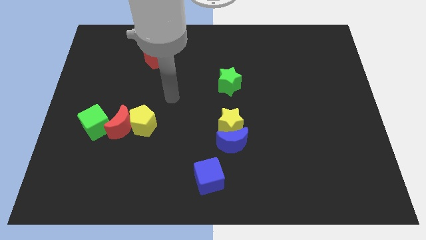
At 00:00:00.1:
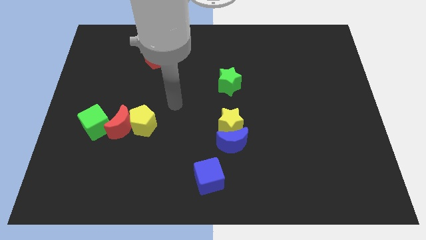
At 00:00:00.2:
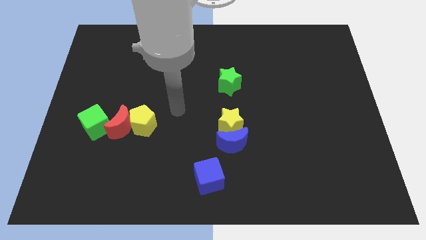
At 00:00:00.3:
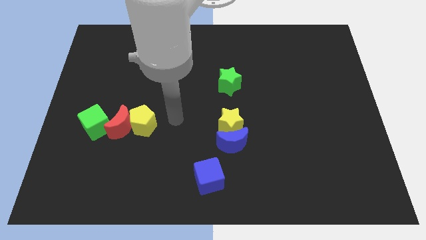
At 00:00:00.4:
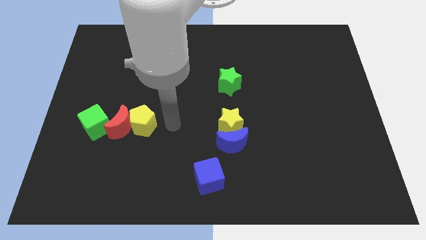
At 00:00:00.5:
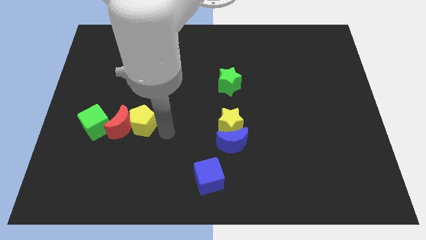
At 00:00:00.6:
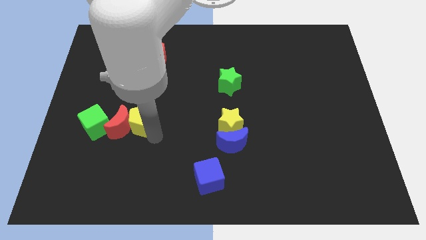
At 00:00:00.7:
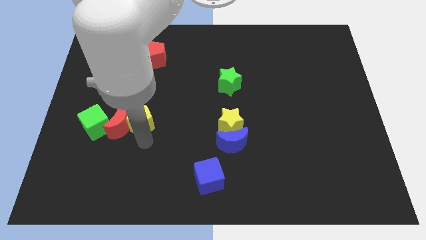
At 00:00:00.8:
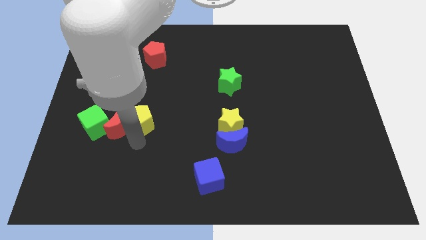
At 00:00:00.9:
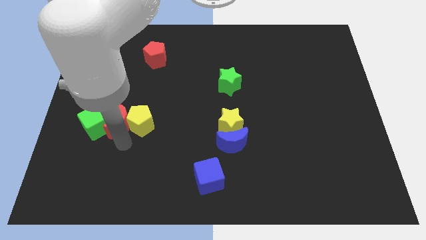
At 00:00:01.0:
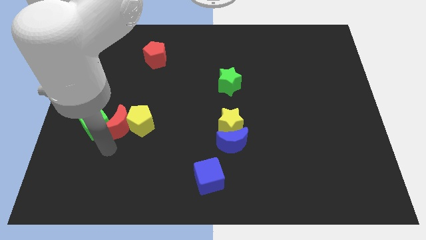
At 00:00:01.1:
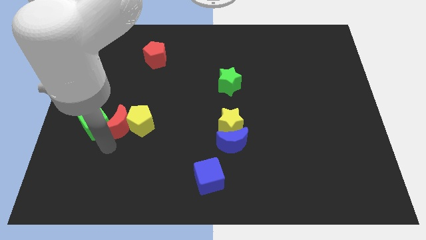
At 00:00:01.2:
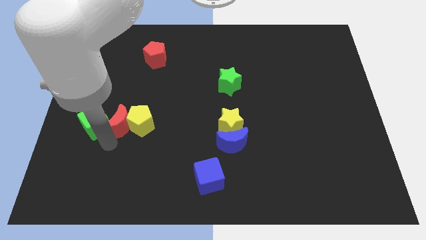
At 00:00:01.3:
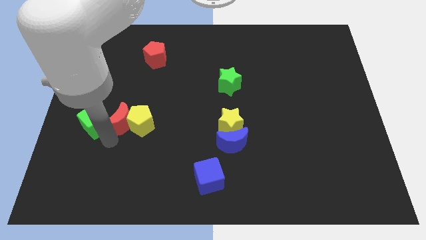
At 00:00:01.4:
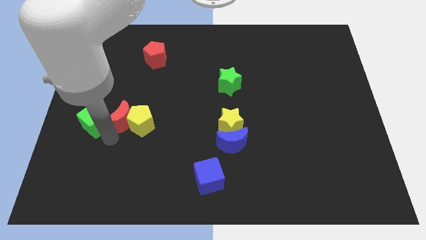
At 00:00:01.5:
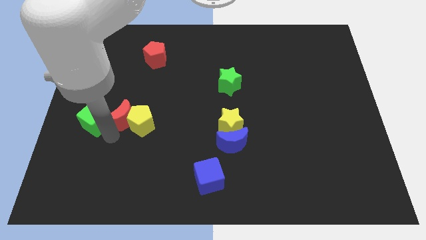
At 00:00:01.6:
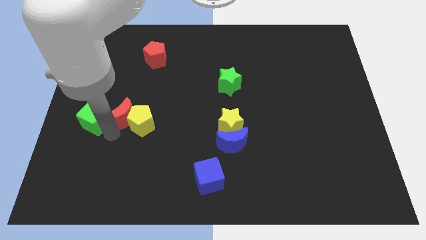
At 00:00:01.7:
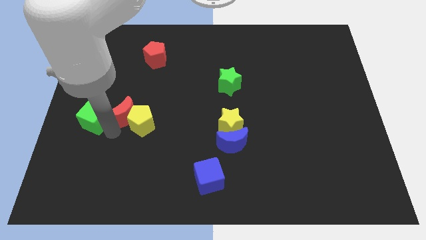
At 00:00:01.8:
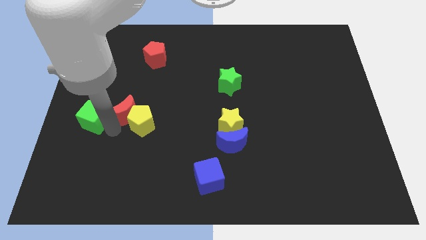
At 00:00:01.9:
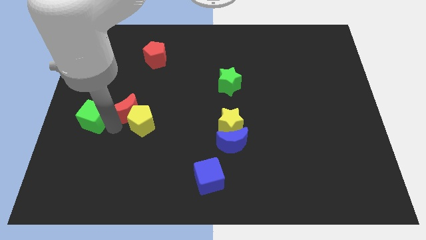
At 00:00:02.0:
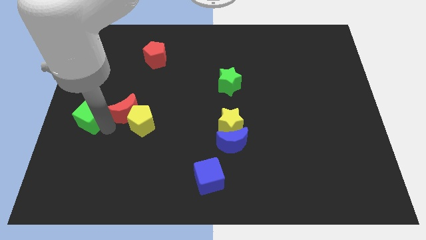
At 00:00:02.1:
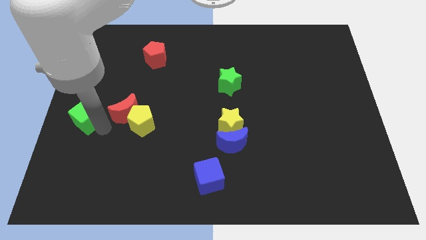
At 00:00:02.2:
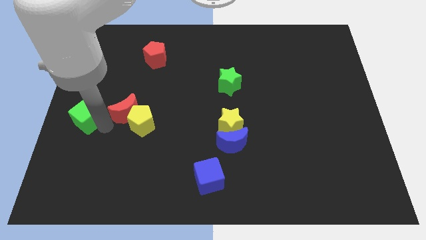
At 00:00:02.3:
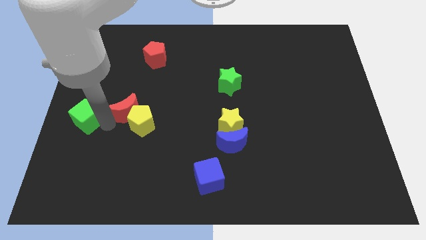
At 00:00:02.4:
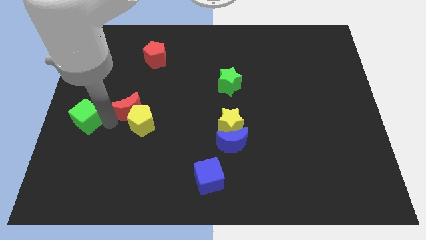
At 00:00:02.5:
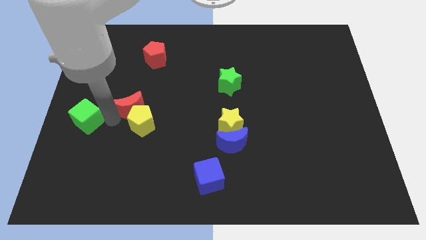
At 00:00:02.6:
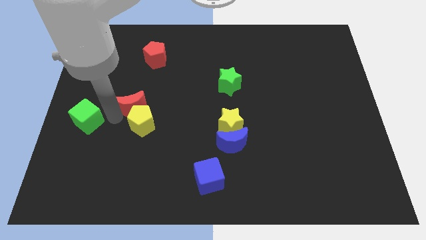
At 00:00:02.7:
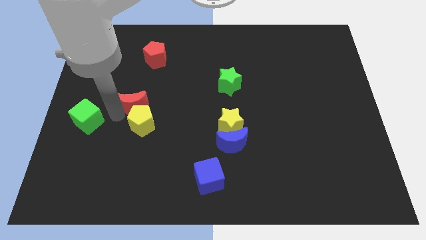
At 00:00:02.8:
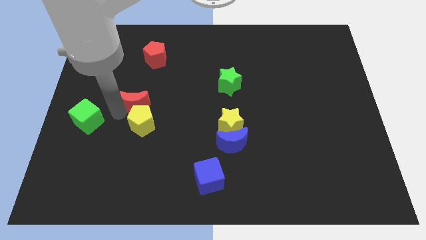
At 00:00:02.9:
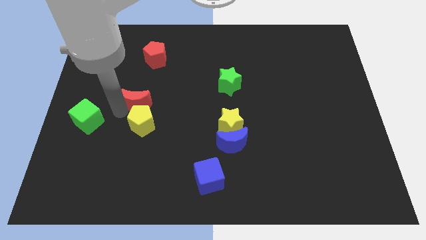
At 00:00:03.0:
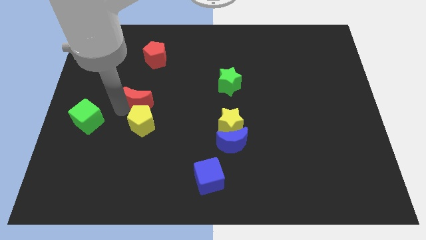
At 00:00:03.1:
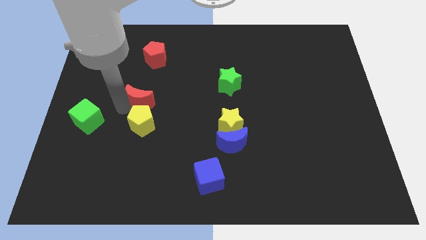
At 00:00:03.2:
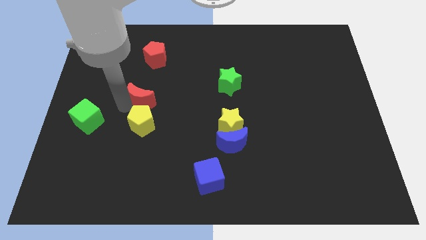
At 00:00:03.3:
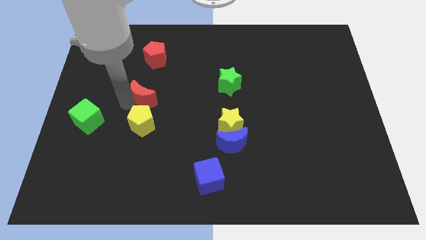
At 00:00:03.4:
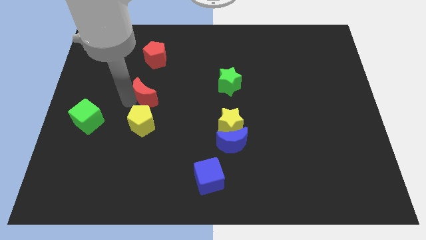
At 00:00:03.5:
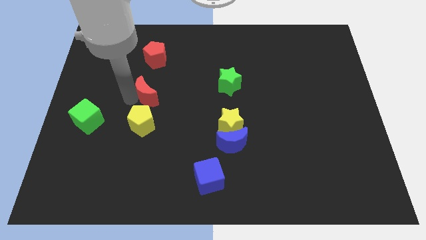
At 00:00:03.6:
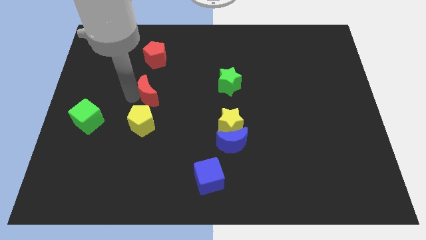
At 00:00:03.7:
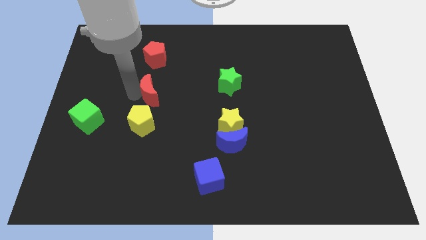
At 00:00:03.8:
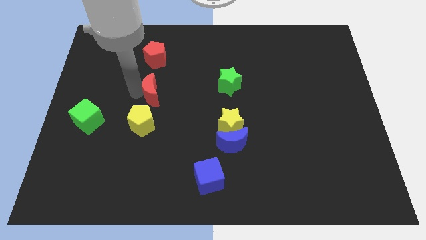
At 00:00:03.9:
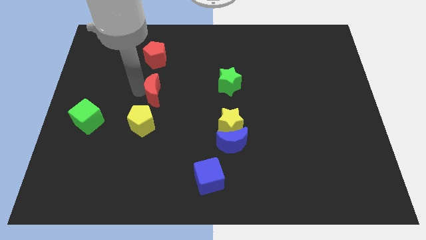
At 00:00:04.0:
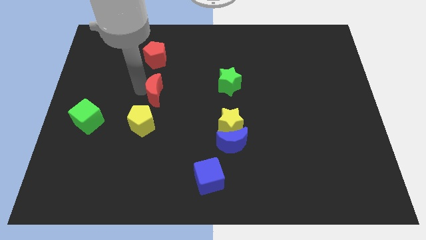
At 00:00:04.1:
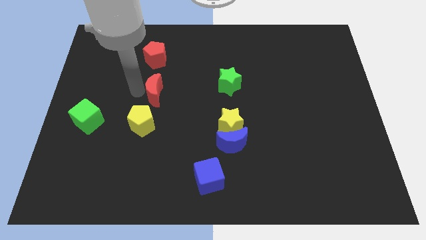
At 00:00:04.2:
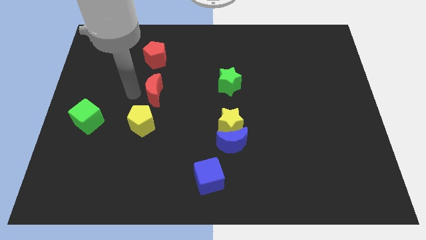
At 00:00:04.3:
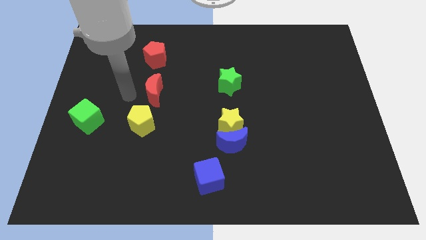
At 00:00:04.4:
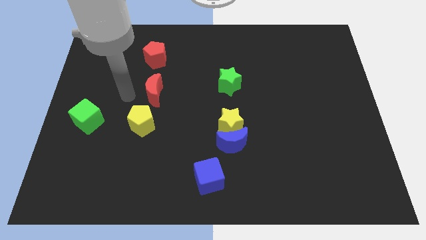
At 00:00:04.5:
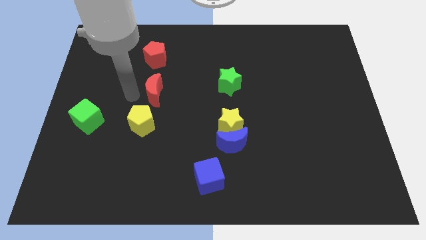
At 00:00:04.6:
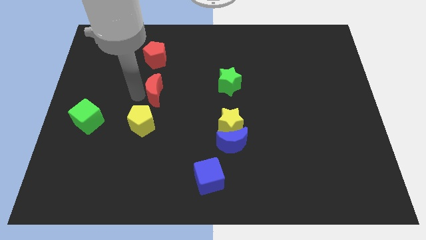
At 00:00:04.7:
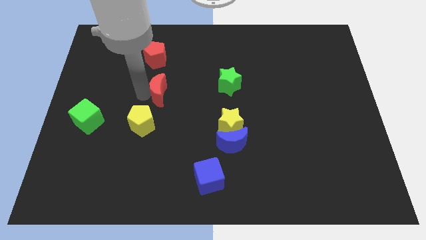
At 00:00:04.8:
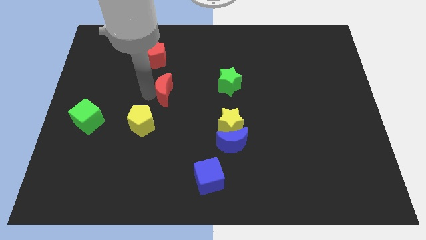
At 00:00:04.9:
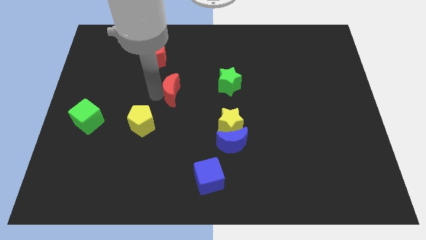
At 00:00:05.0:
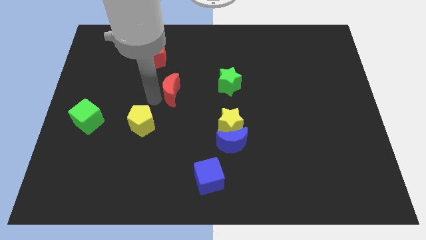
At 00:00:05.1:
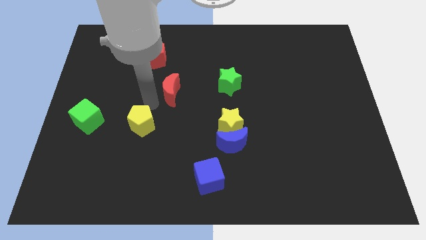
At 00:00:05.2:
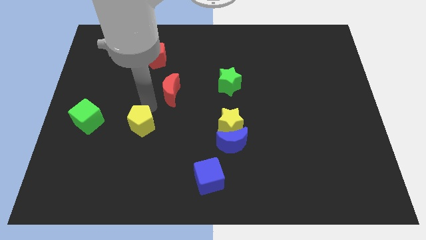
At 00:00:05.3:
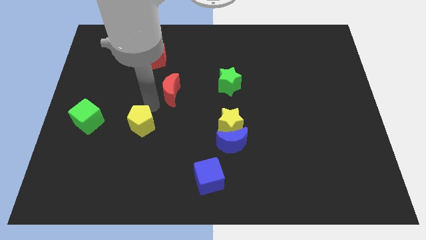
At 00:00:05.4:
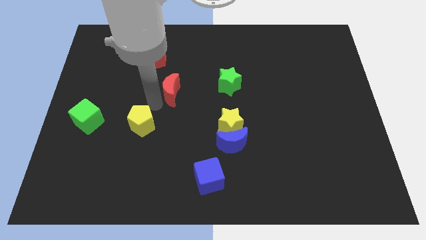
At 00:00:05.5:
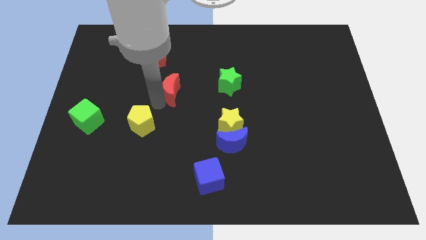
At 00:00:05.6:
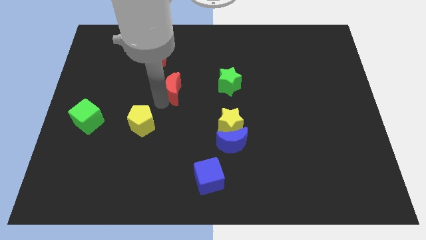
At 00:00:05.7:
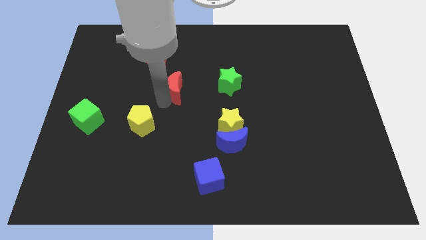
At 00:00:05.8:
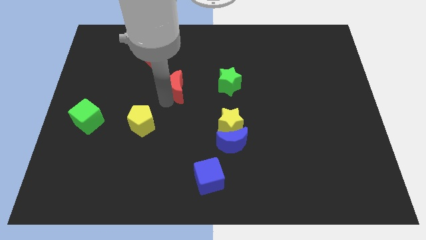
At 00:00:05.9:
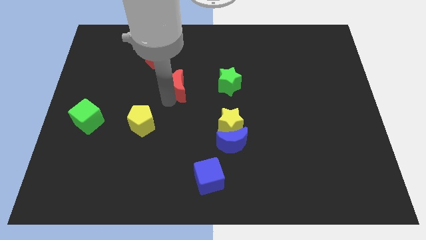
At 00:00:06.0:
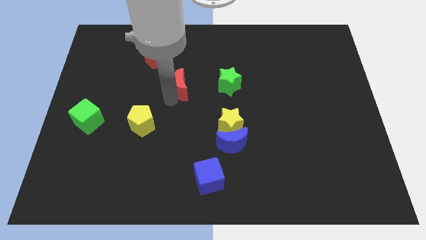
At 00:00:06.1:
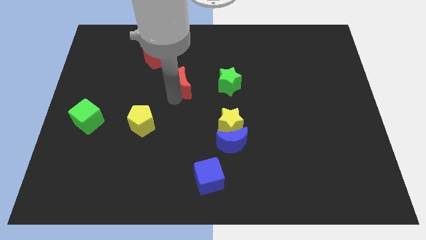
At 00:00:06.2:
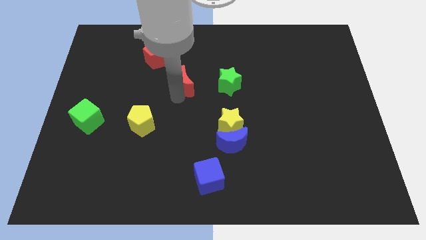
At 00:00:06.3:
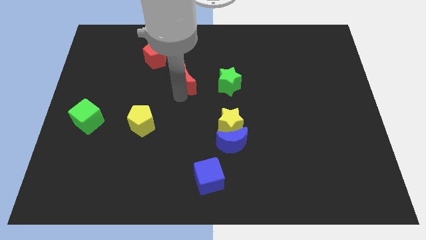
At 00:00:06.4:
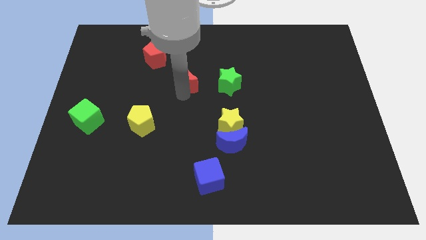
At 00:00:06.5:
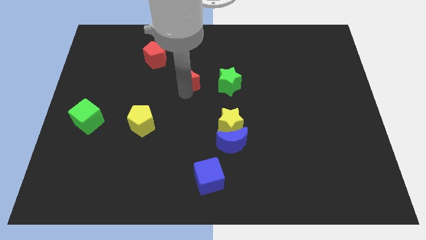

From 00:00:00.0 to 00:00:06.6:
push the red moon upwards and then to the right

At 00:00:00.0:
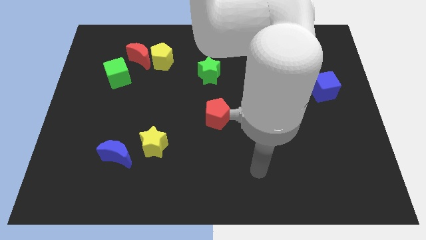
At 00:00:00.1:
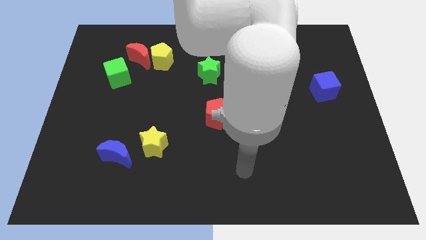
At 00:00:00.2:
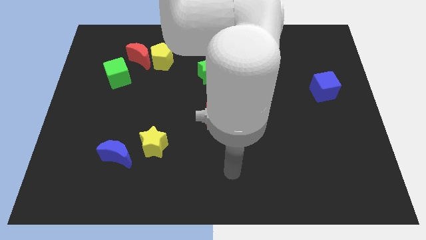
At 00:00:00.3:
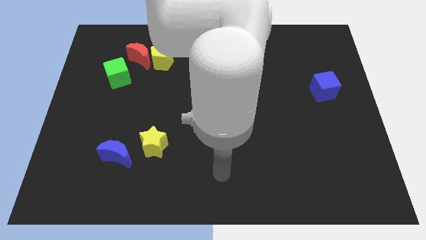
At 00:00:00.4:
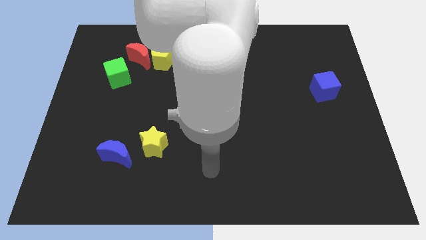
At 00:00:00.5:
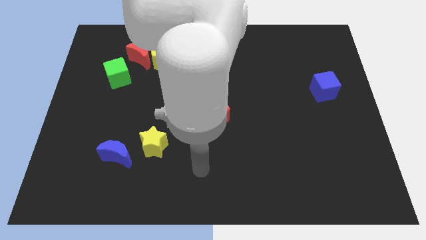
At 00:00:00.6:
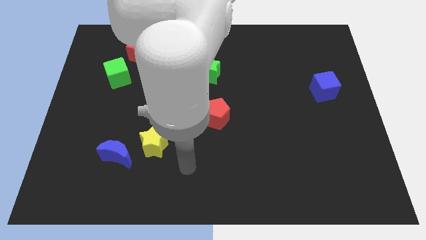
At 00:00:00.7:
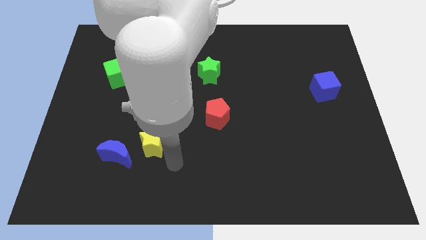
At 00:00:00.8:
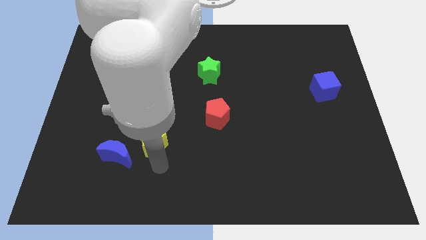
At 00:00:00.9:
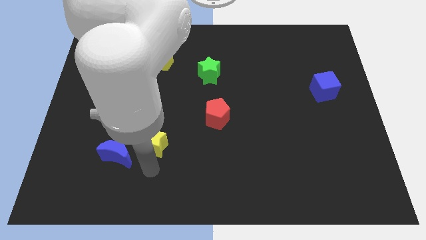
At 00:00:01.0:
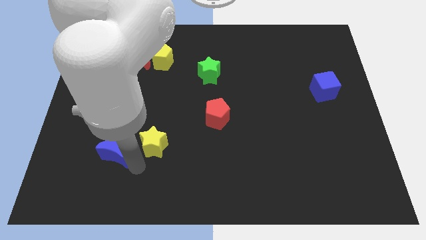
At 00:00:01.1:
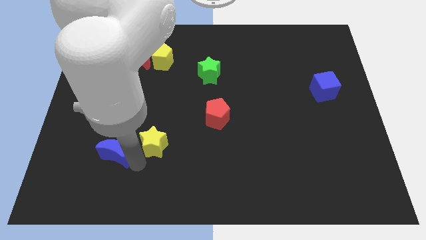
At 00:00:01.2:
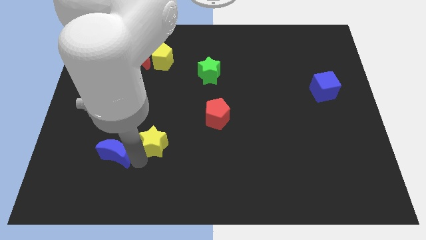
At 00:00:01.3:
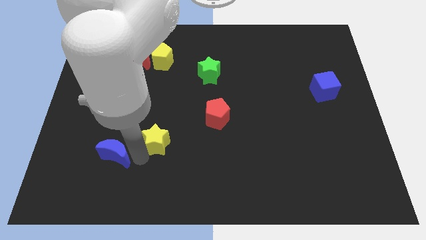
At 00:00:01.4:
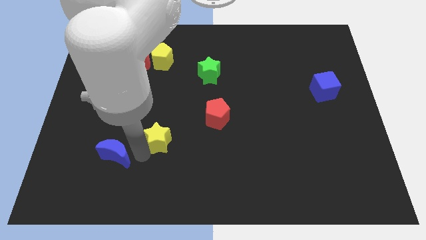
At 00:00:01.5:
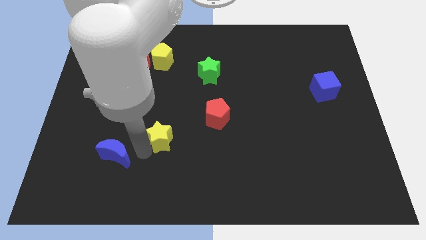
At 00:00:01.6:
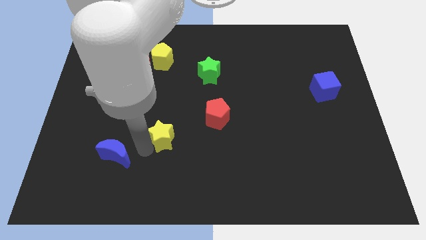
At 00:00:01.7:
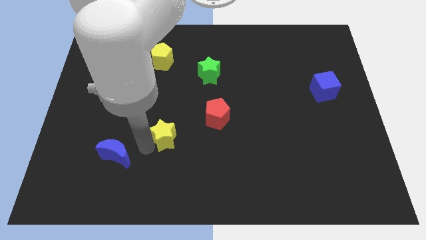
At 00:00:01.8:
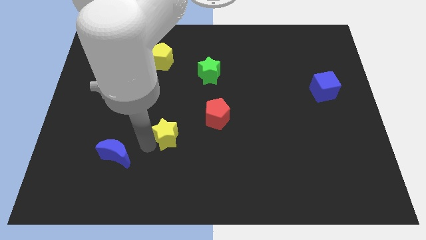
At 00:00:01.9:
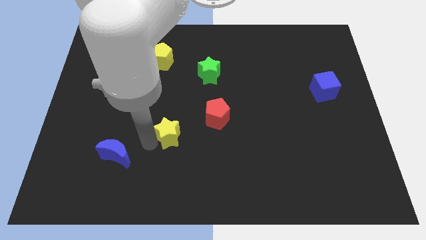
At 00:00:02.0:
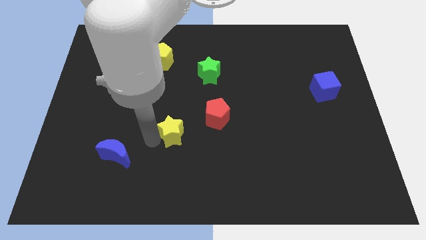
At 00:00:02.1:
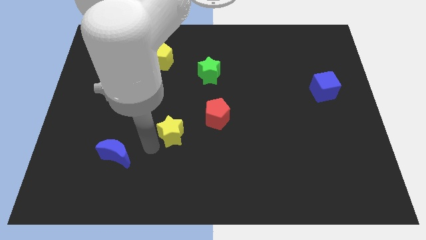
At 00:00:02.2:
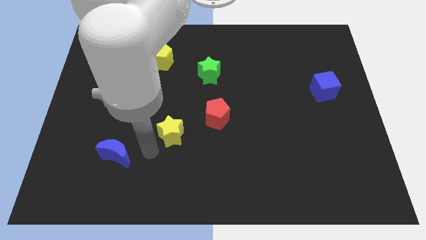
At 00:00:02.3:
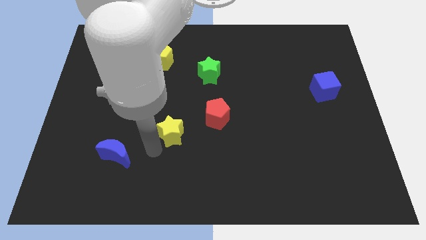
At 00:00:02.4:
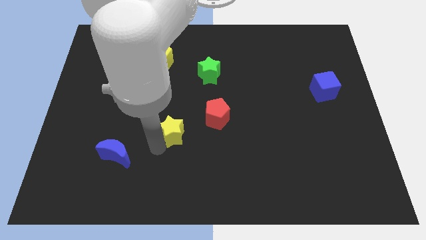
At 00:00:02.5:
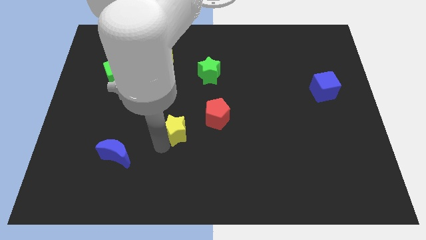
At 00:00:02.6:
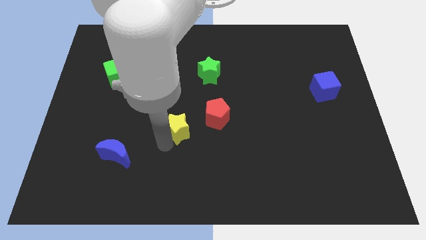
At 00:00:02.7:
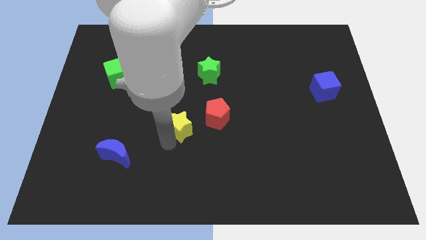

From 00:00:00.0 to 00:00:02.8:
slide the yellow star diagonally upwards and to the right a bit
